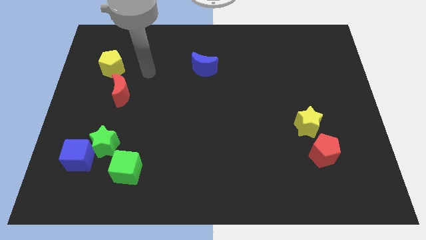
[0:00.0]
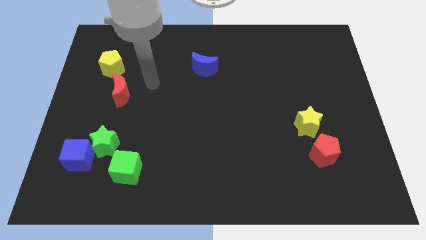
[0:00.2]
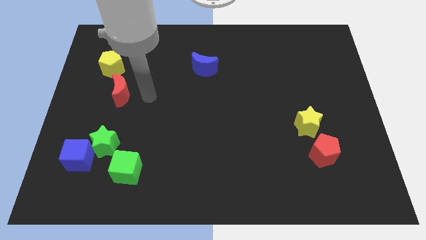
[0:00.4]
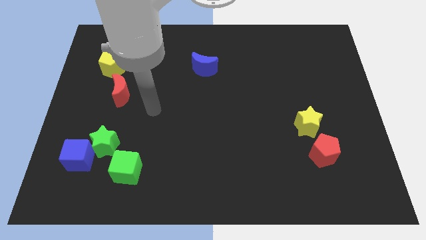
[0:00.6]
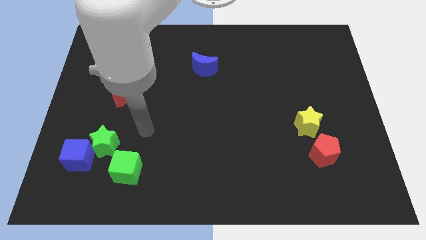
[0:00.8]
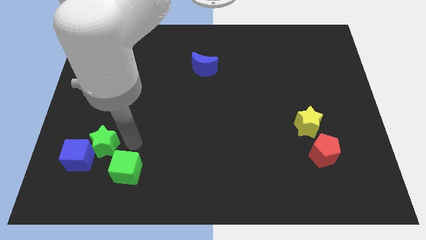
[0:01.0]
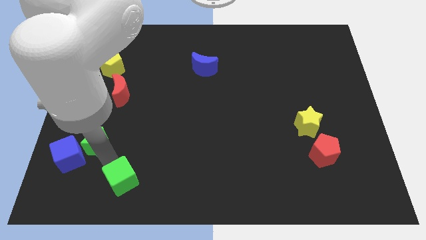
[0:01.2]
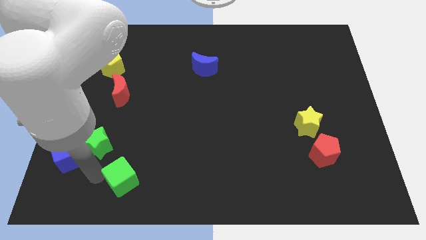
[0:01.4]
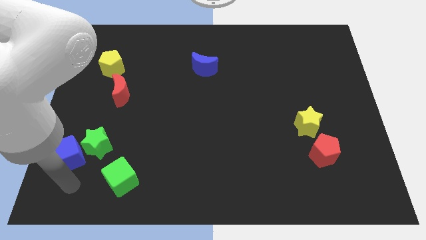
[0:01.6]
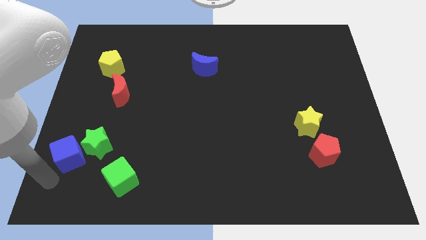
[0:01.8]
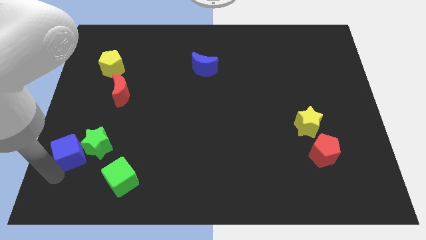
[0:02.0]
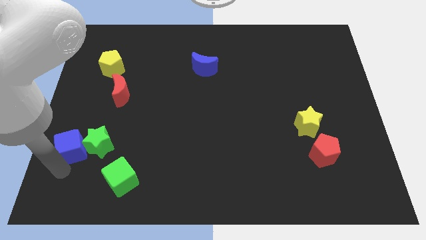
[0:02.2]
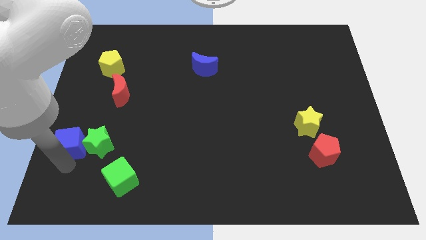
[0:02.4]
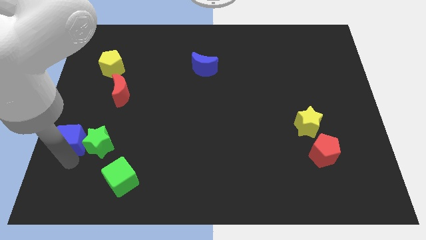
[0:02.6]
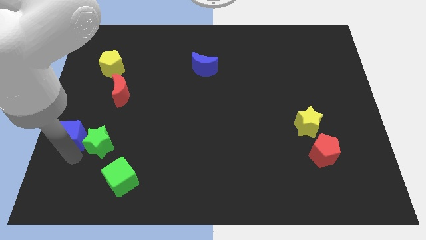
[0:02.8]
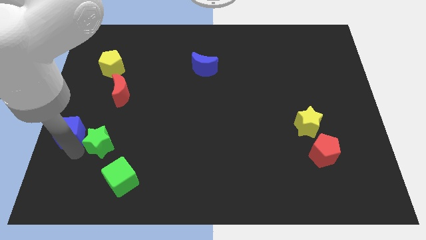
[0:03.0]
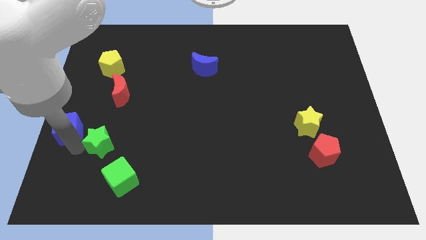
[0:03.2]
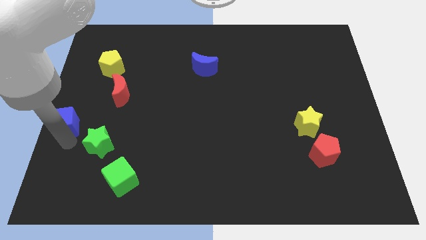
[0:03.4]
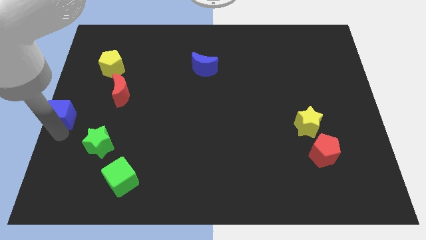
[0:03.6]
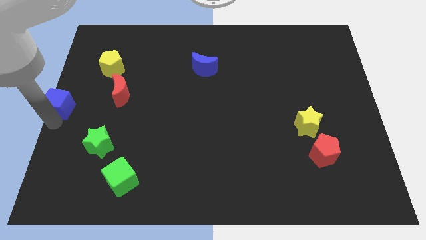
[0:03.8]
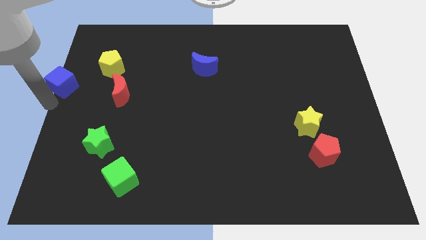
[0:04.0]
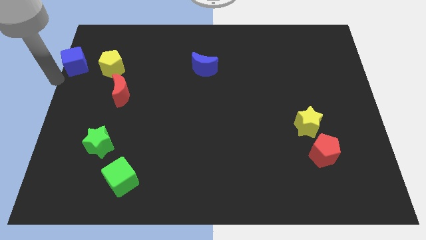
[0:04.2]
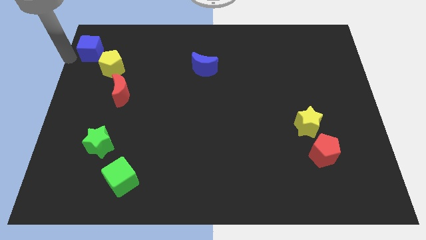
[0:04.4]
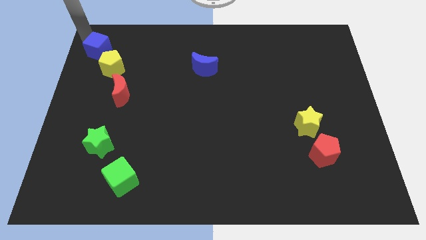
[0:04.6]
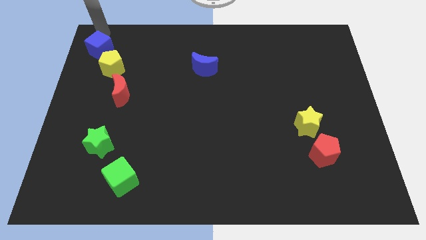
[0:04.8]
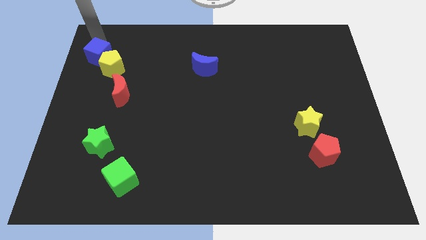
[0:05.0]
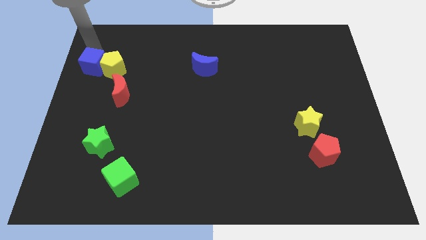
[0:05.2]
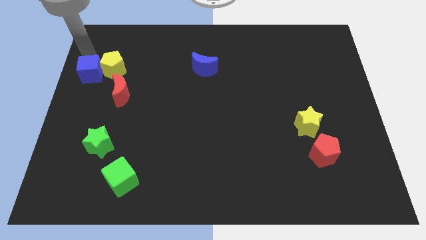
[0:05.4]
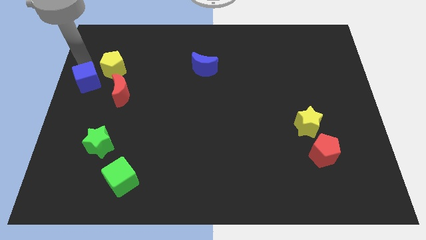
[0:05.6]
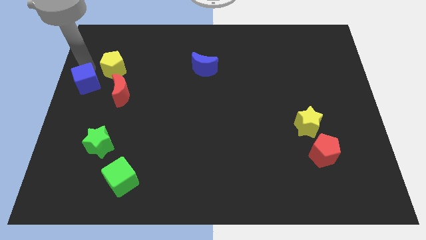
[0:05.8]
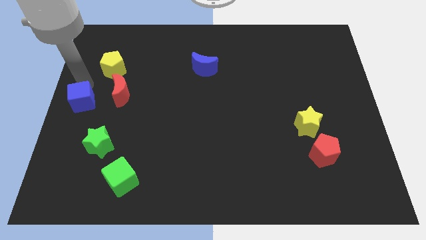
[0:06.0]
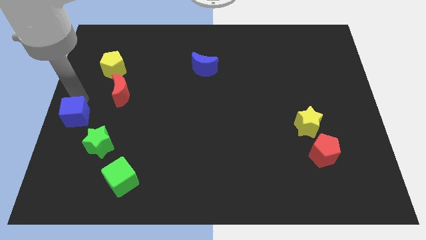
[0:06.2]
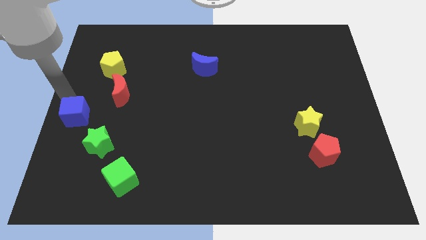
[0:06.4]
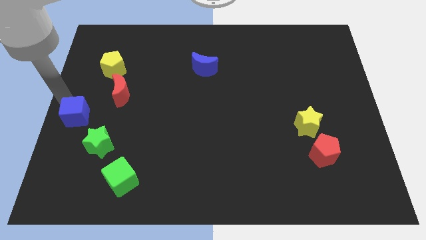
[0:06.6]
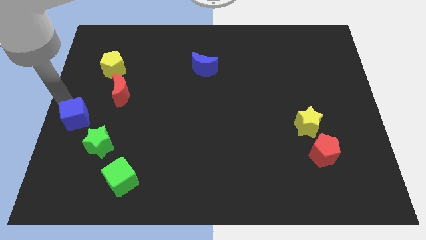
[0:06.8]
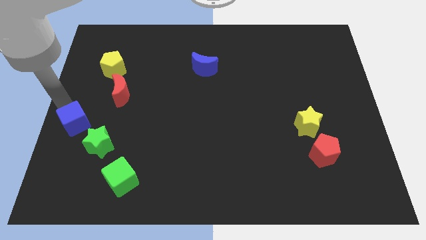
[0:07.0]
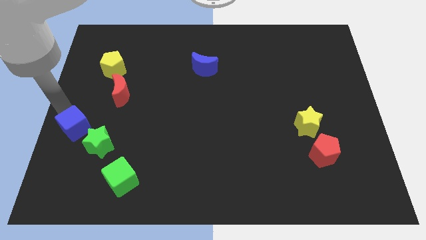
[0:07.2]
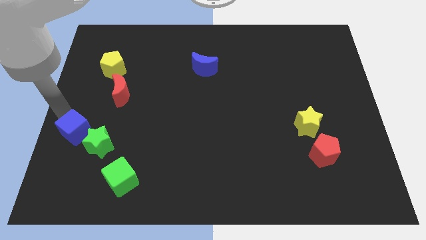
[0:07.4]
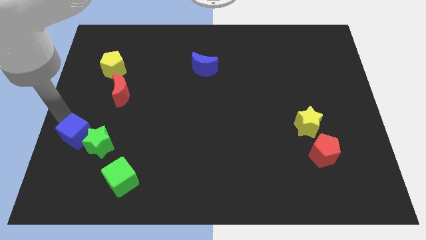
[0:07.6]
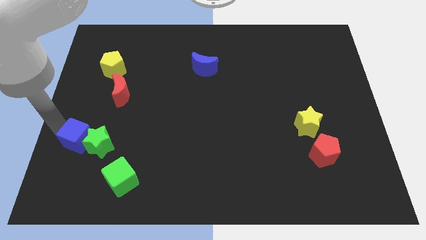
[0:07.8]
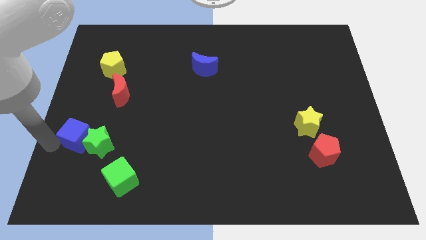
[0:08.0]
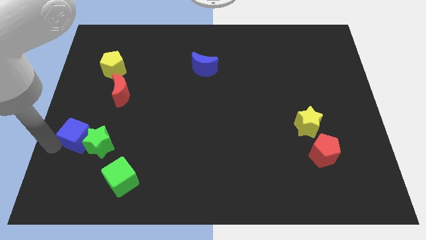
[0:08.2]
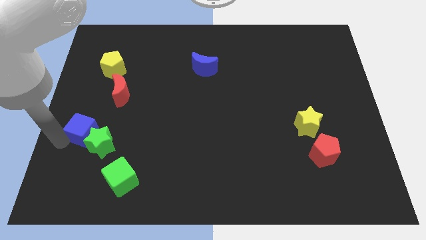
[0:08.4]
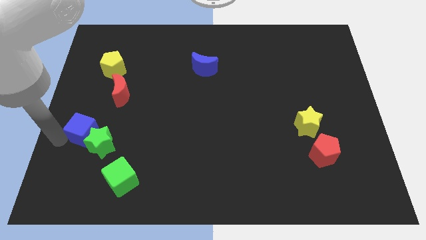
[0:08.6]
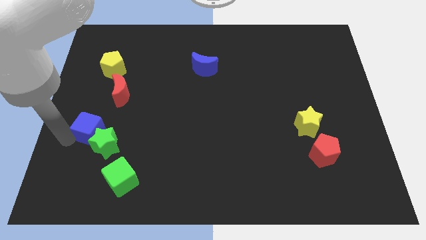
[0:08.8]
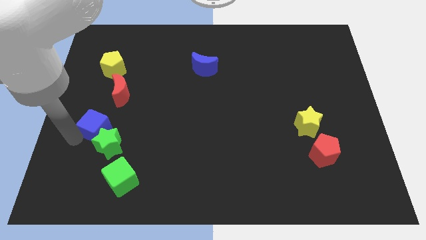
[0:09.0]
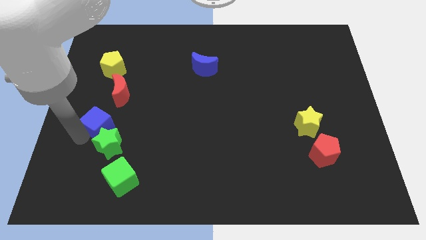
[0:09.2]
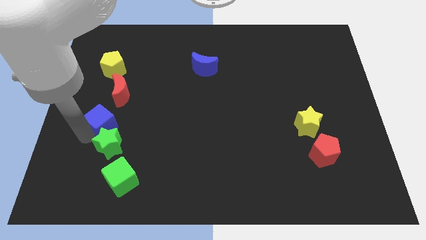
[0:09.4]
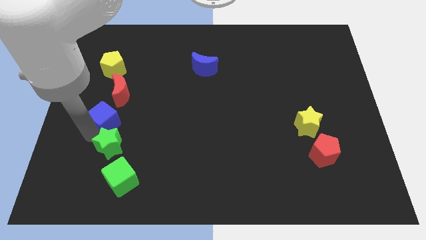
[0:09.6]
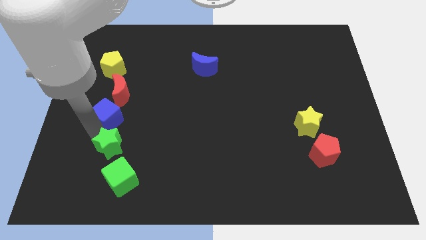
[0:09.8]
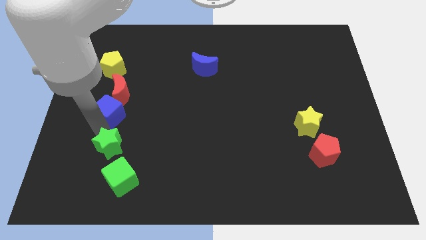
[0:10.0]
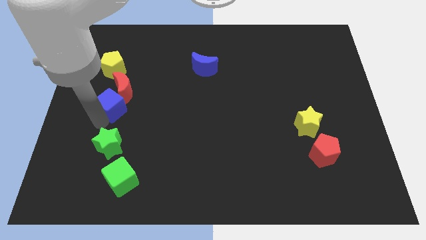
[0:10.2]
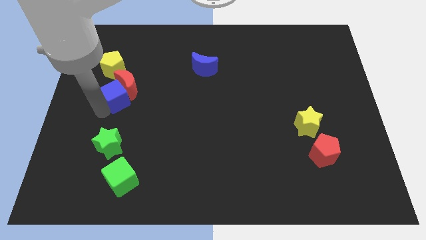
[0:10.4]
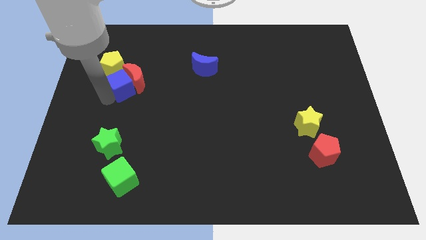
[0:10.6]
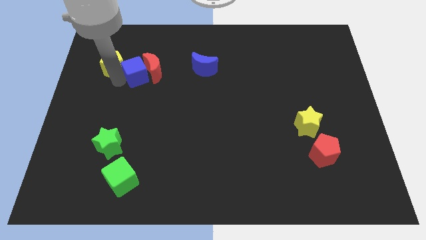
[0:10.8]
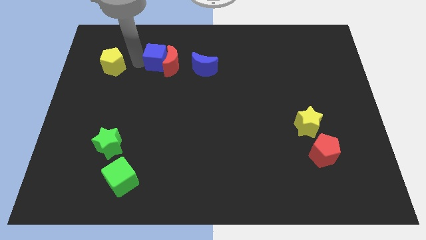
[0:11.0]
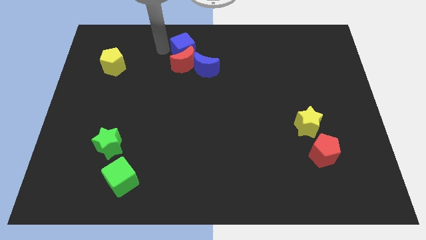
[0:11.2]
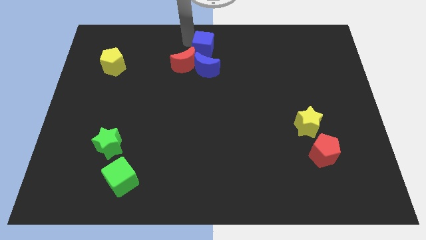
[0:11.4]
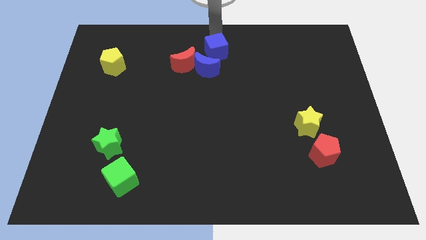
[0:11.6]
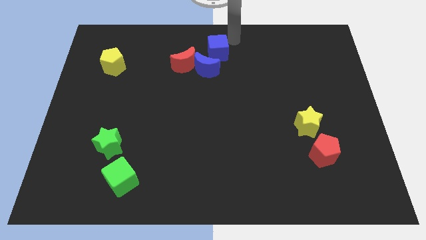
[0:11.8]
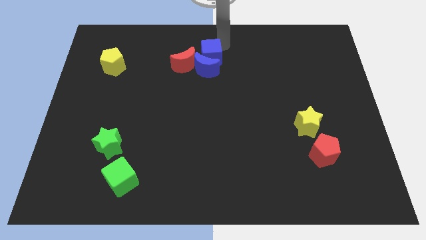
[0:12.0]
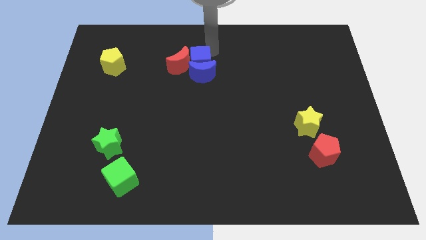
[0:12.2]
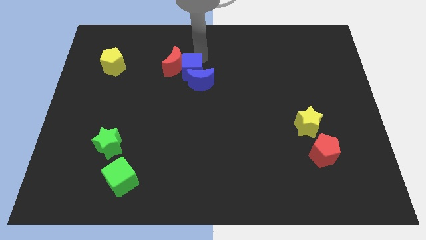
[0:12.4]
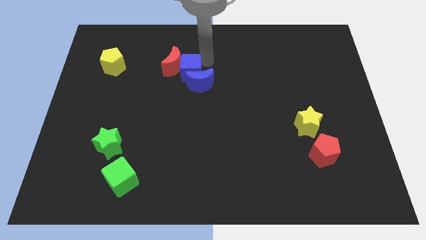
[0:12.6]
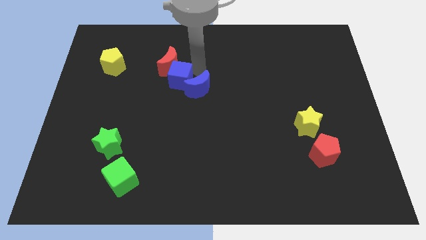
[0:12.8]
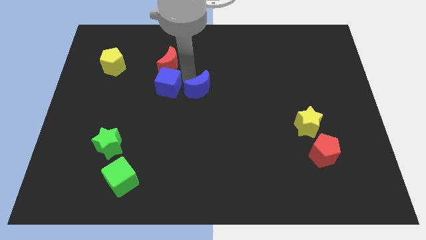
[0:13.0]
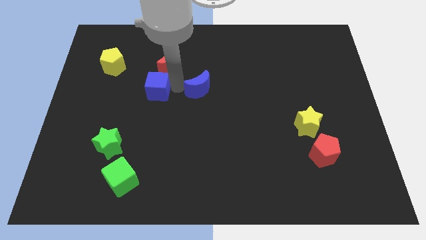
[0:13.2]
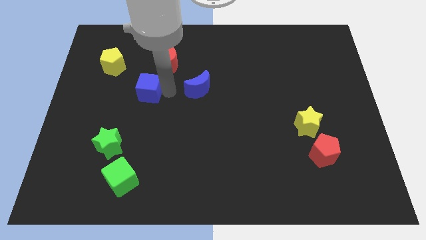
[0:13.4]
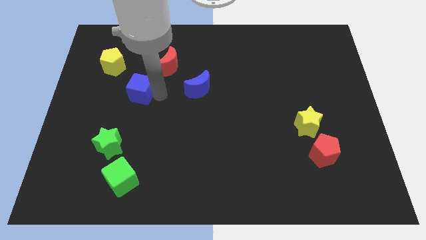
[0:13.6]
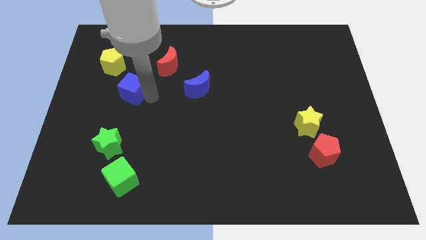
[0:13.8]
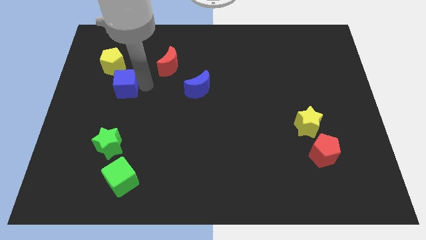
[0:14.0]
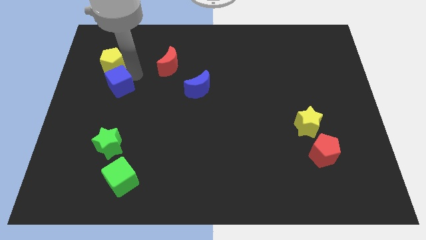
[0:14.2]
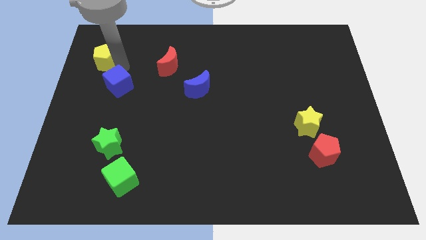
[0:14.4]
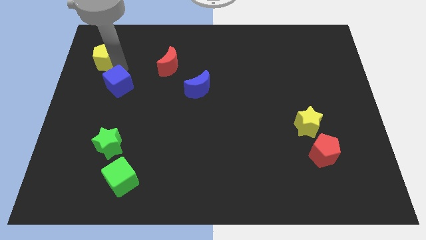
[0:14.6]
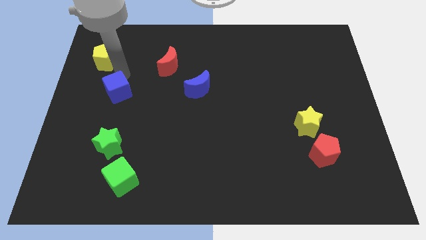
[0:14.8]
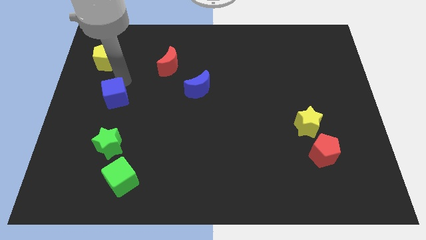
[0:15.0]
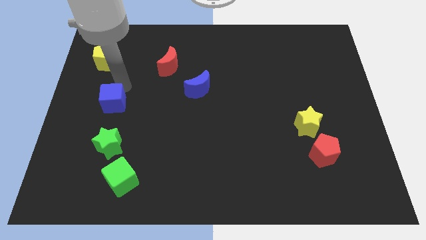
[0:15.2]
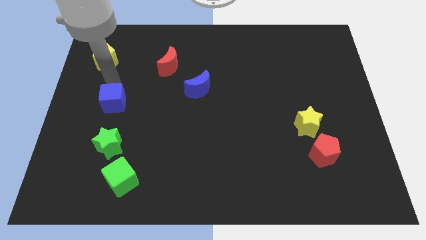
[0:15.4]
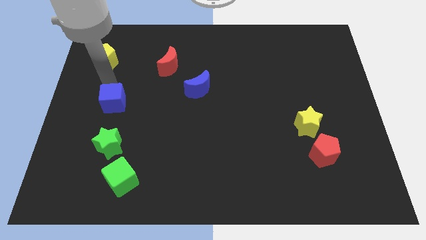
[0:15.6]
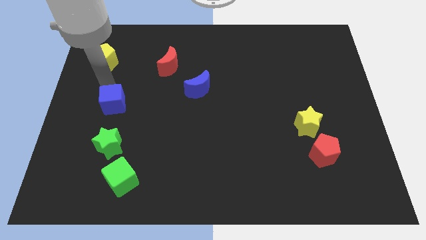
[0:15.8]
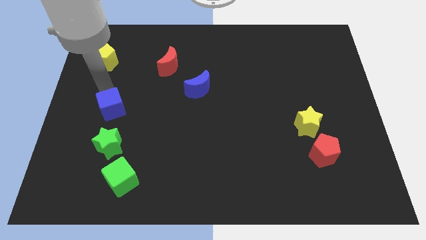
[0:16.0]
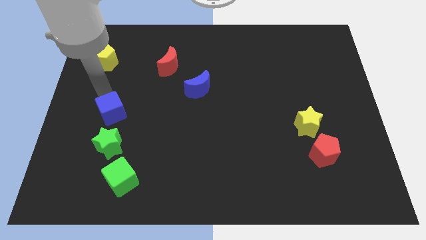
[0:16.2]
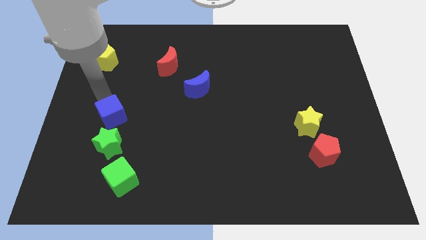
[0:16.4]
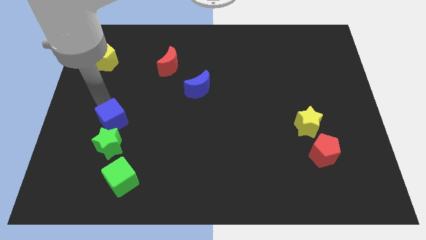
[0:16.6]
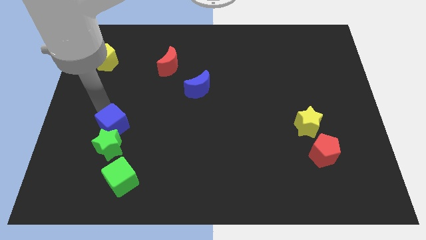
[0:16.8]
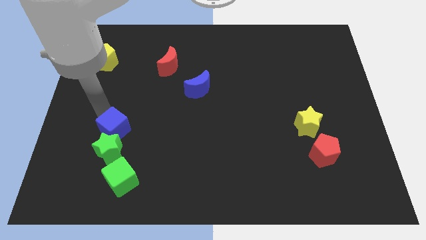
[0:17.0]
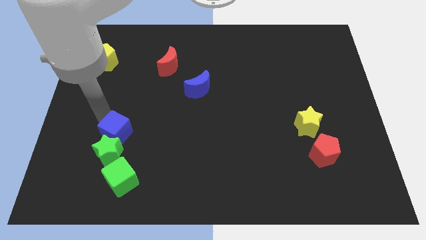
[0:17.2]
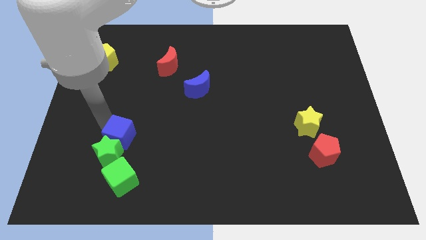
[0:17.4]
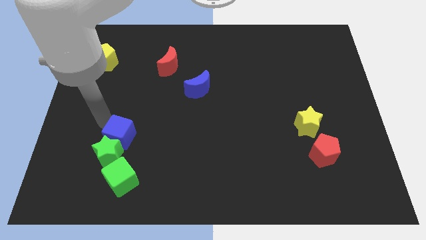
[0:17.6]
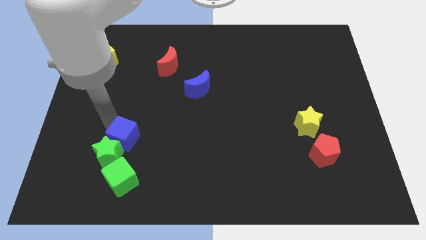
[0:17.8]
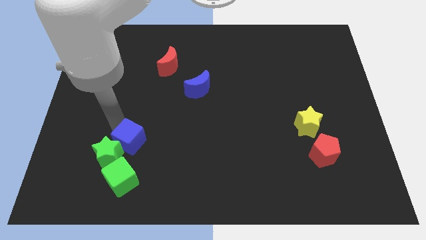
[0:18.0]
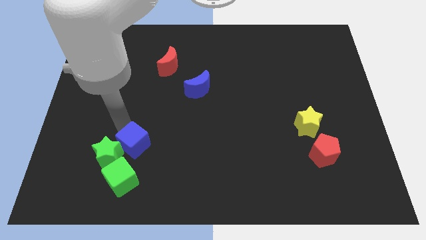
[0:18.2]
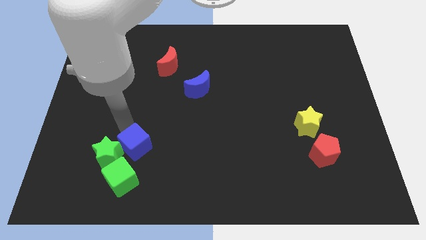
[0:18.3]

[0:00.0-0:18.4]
move the blue cube to the top right side of the green cube
